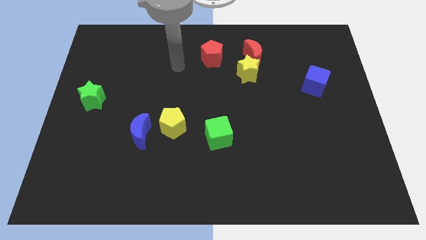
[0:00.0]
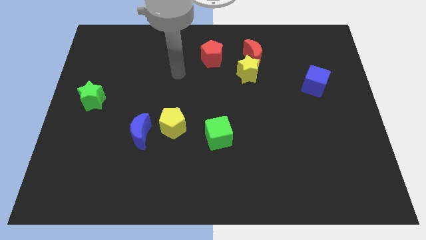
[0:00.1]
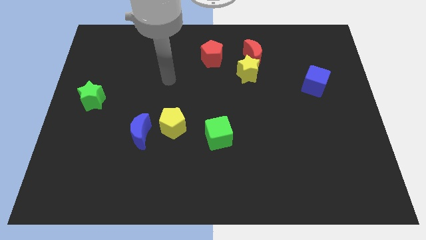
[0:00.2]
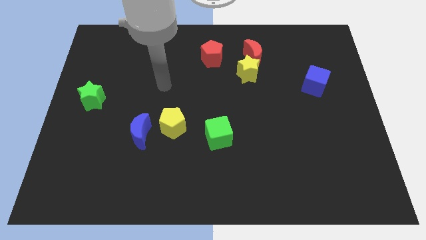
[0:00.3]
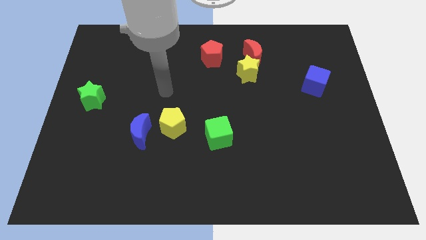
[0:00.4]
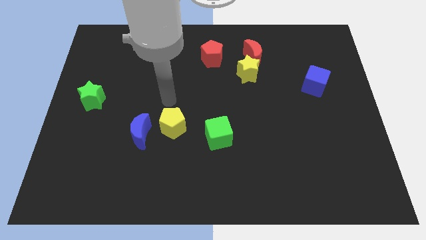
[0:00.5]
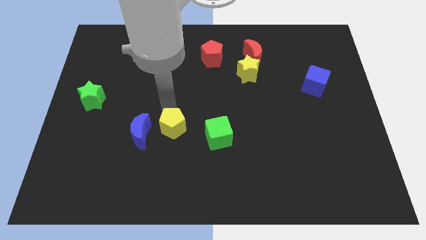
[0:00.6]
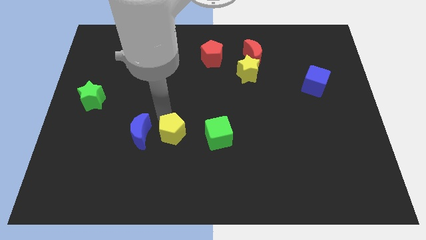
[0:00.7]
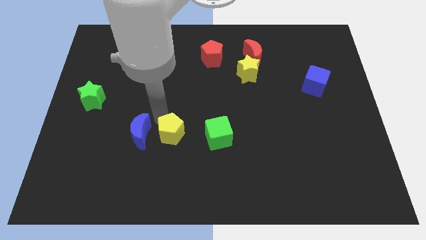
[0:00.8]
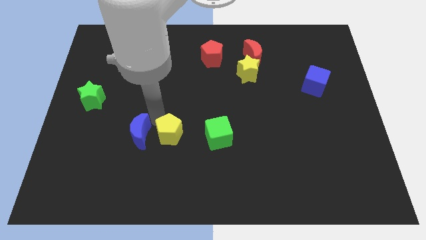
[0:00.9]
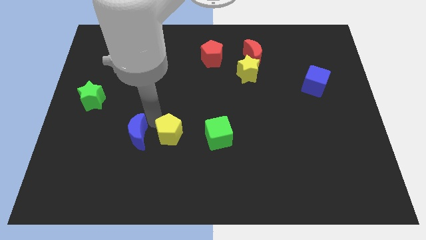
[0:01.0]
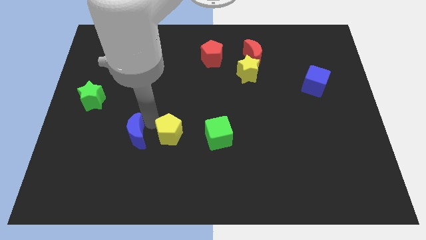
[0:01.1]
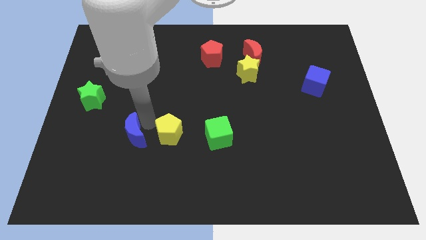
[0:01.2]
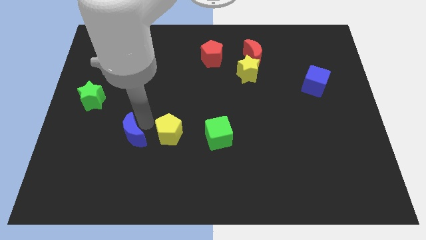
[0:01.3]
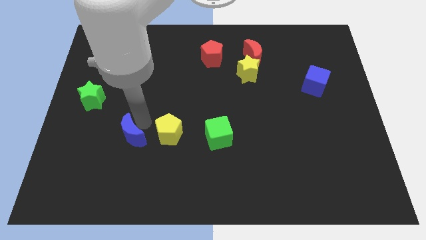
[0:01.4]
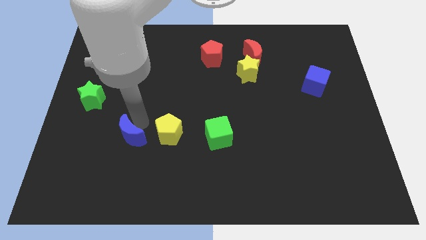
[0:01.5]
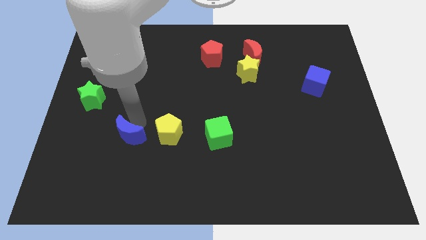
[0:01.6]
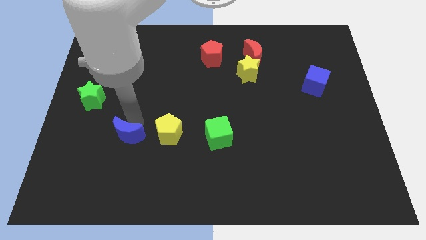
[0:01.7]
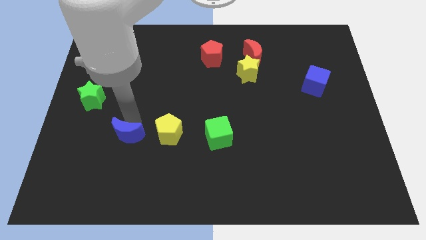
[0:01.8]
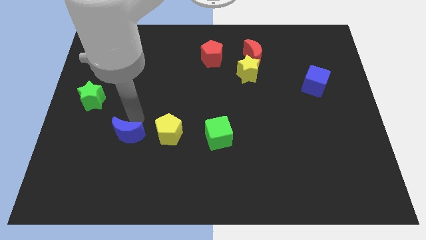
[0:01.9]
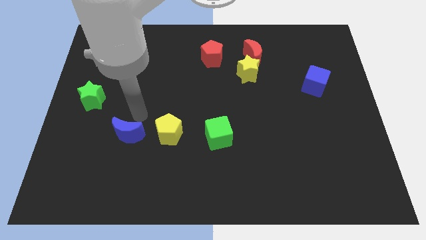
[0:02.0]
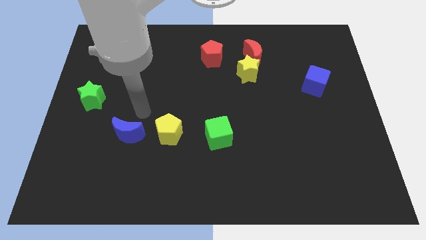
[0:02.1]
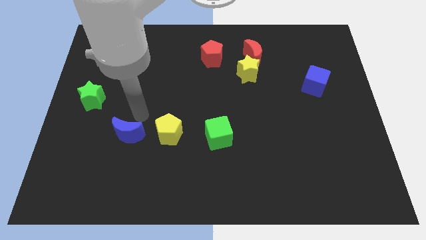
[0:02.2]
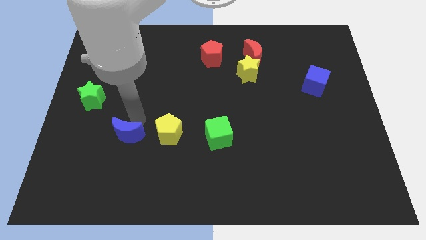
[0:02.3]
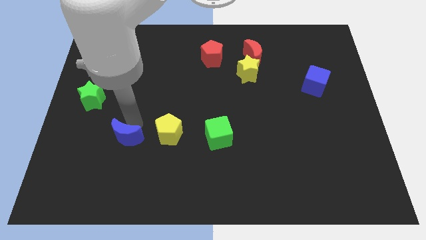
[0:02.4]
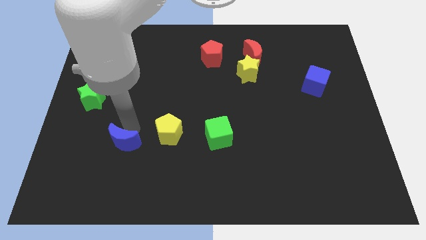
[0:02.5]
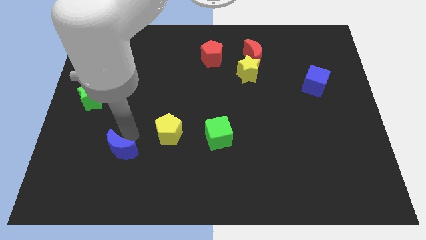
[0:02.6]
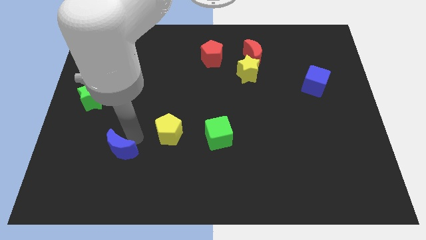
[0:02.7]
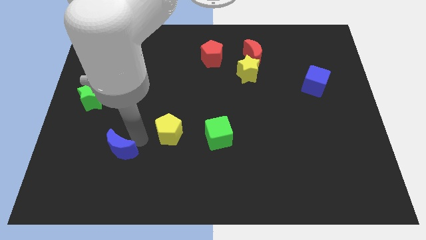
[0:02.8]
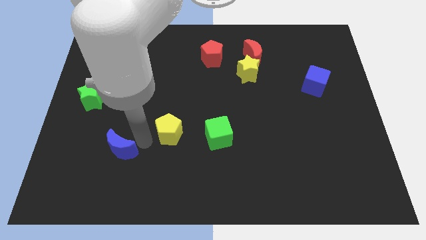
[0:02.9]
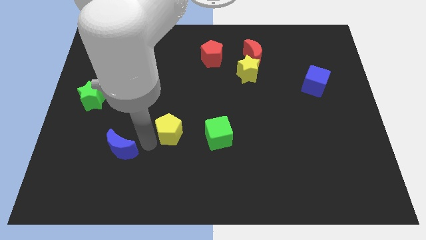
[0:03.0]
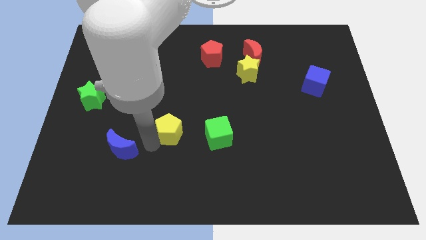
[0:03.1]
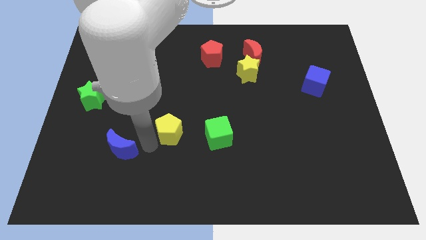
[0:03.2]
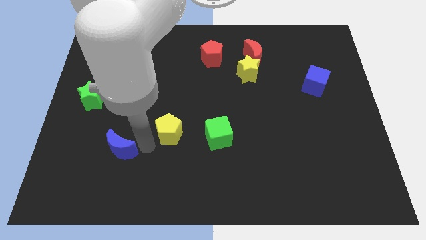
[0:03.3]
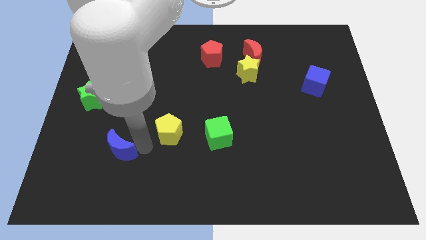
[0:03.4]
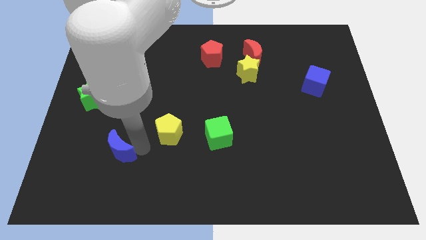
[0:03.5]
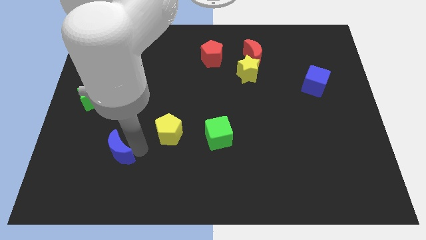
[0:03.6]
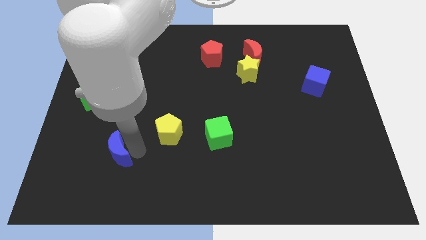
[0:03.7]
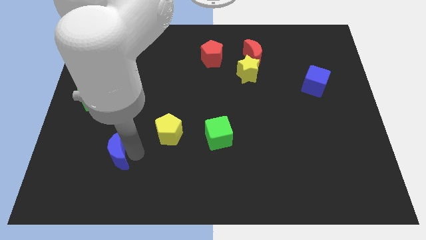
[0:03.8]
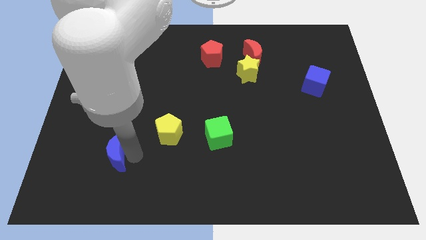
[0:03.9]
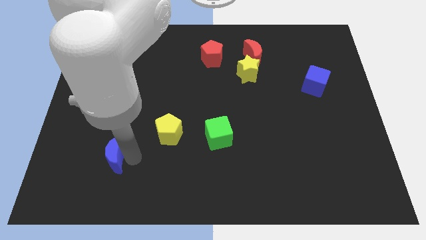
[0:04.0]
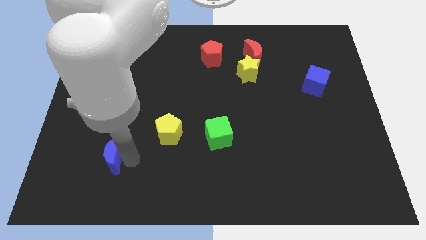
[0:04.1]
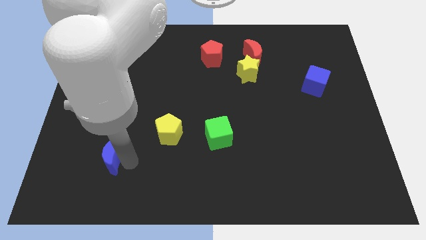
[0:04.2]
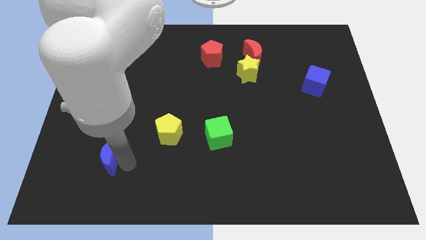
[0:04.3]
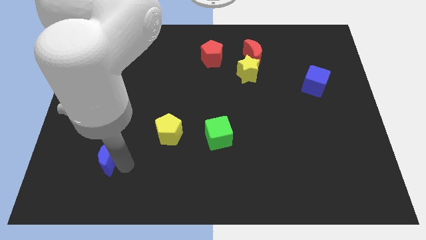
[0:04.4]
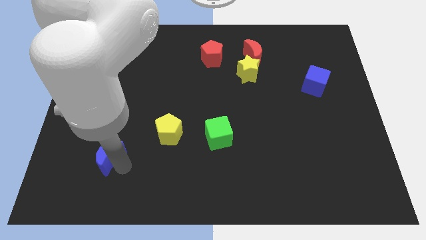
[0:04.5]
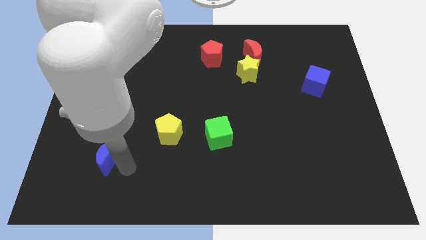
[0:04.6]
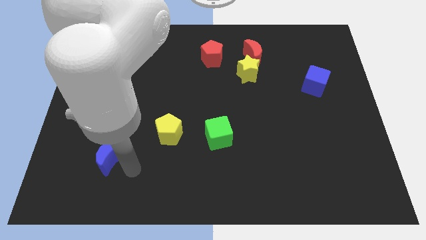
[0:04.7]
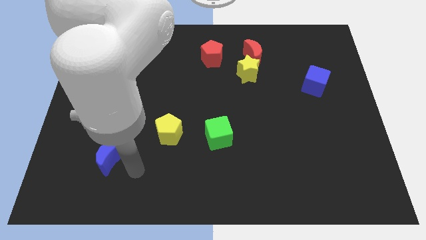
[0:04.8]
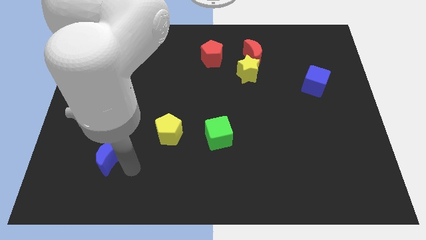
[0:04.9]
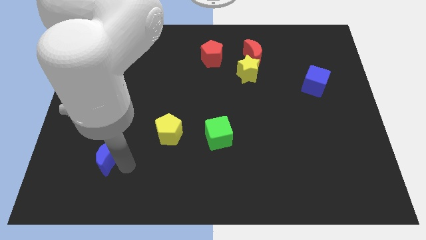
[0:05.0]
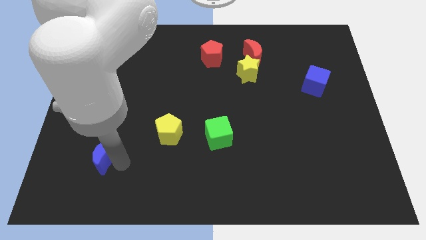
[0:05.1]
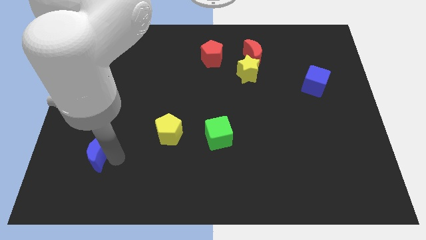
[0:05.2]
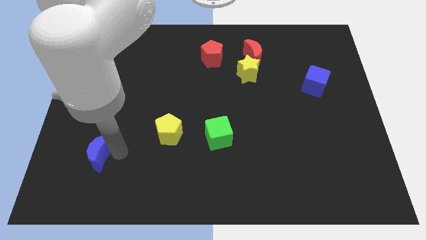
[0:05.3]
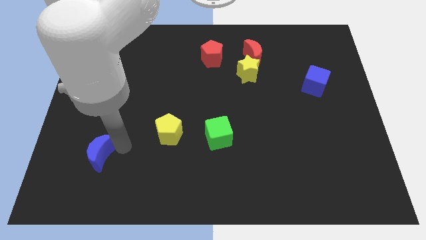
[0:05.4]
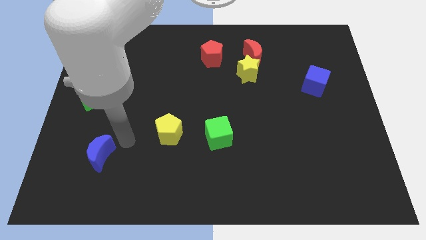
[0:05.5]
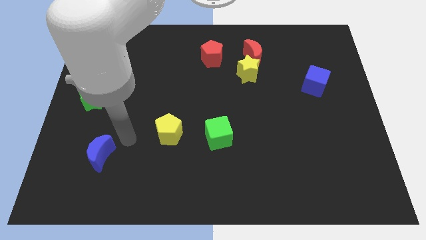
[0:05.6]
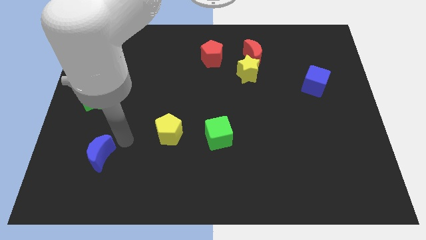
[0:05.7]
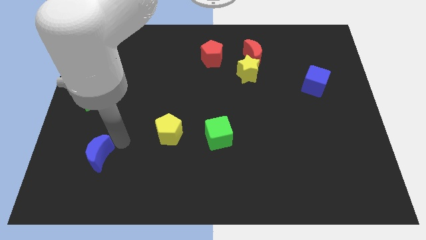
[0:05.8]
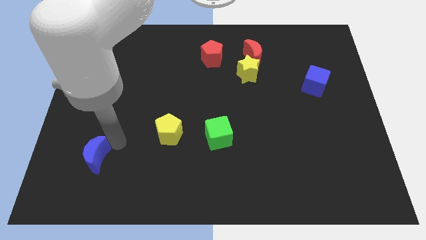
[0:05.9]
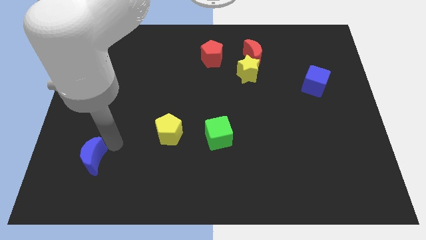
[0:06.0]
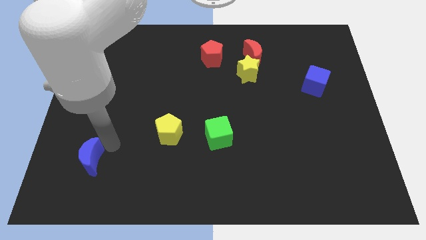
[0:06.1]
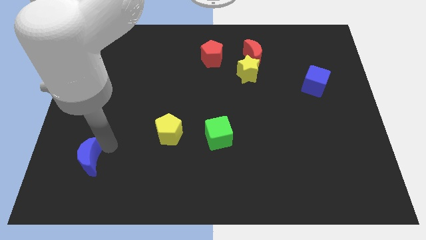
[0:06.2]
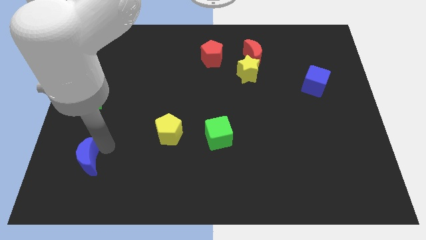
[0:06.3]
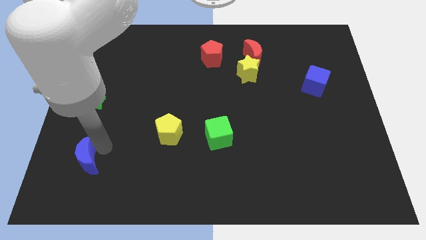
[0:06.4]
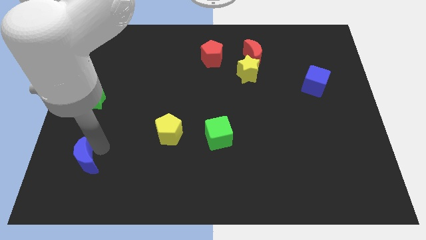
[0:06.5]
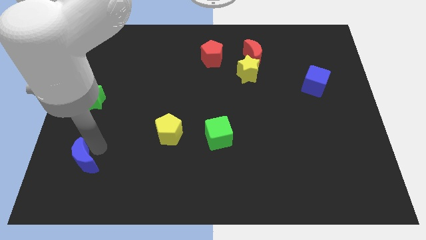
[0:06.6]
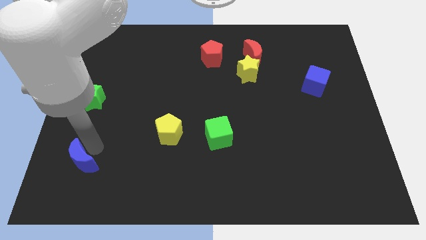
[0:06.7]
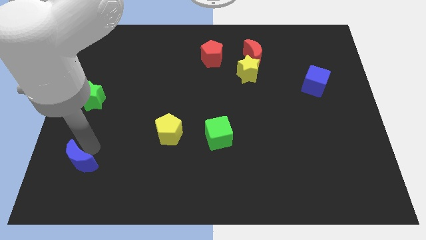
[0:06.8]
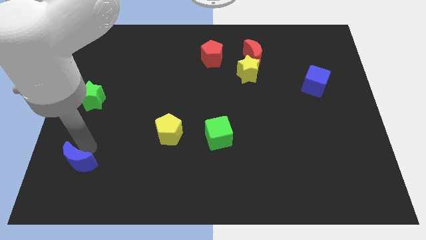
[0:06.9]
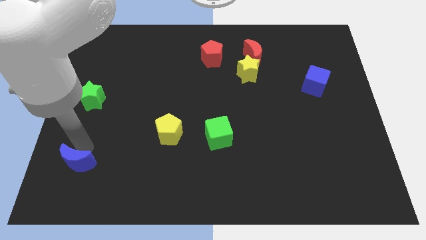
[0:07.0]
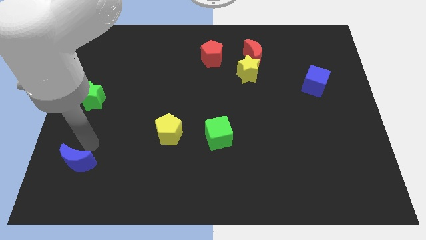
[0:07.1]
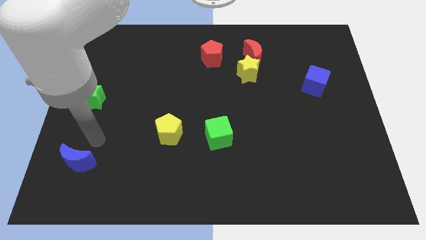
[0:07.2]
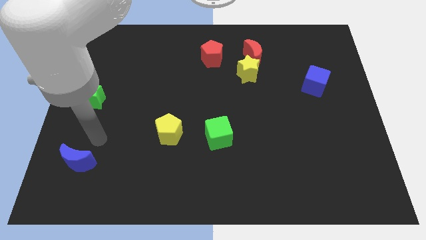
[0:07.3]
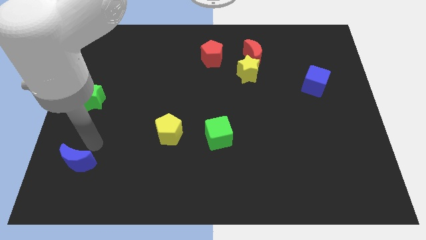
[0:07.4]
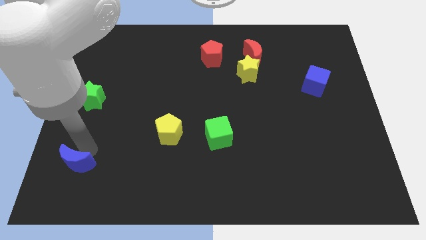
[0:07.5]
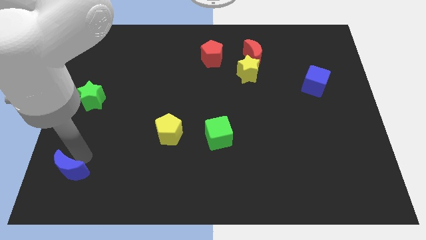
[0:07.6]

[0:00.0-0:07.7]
slide the blue moon to the bottom left of the board
